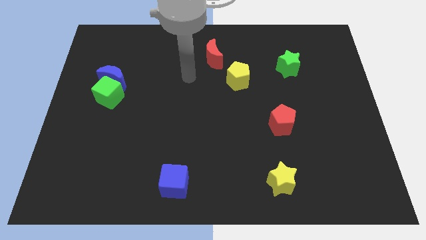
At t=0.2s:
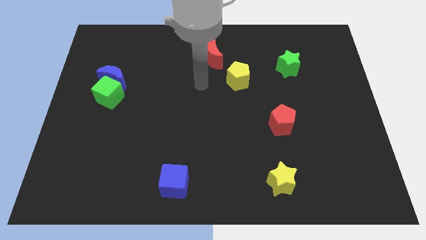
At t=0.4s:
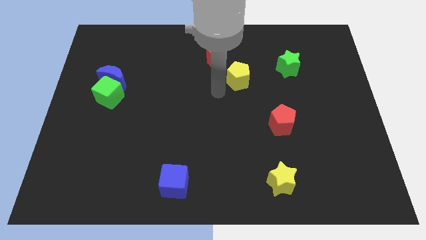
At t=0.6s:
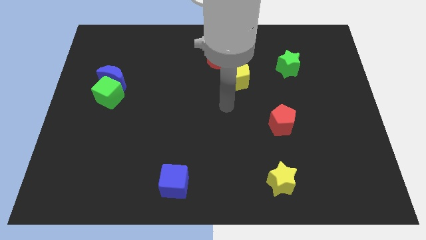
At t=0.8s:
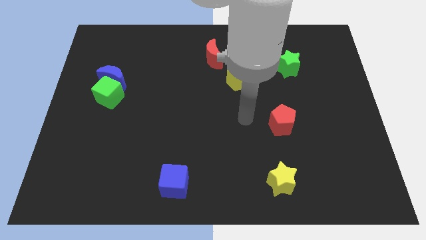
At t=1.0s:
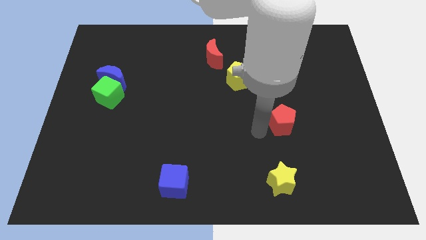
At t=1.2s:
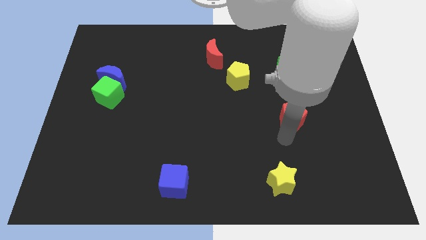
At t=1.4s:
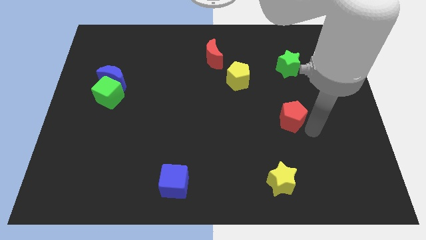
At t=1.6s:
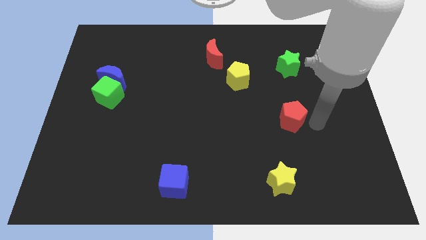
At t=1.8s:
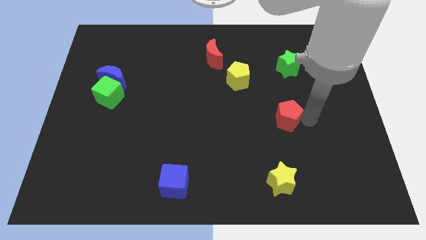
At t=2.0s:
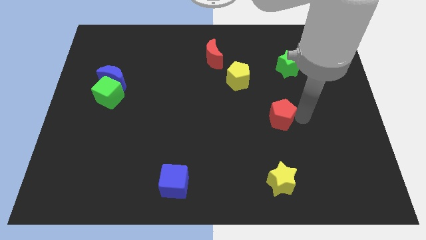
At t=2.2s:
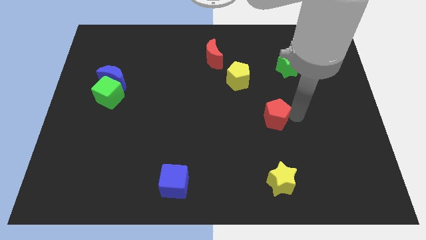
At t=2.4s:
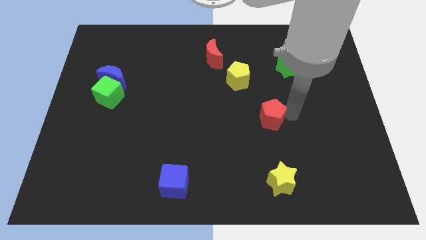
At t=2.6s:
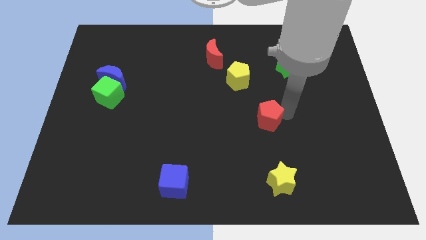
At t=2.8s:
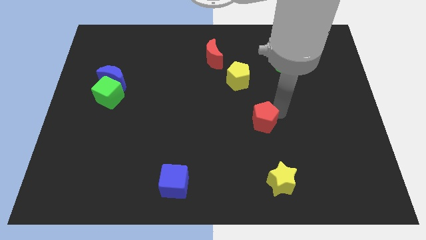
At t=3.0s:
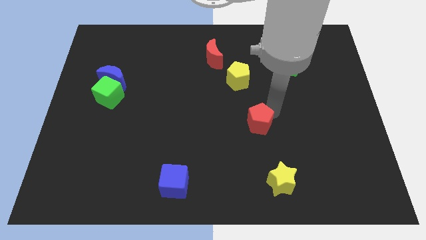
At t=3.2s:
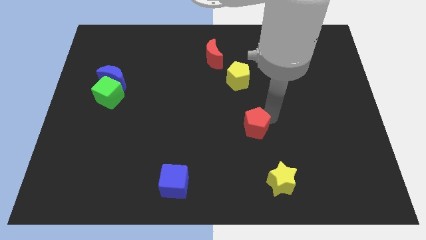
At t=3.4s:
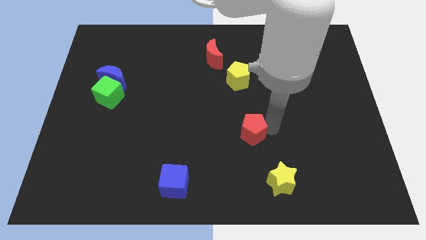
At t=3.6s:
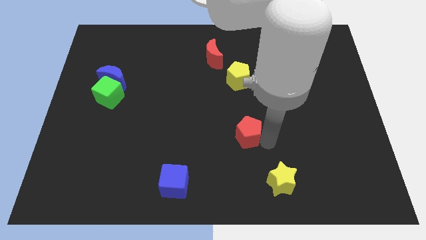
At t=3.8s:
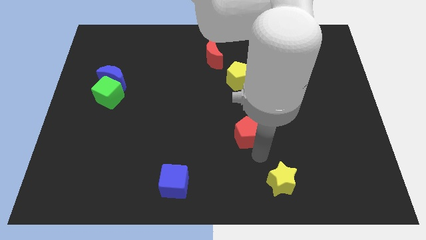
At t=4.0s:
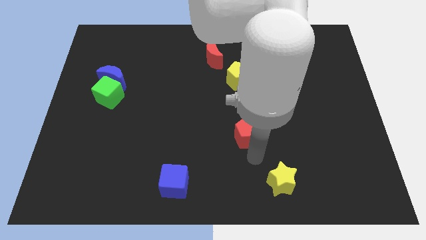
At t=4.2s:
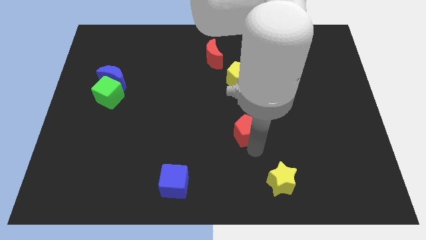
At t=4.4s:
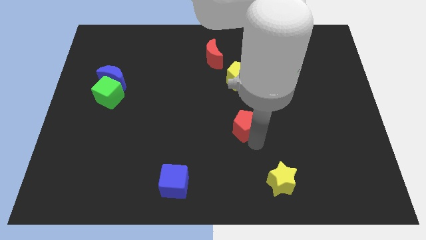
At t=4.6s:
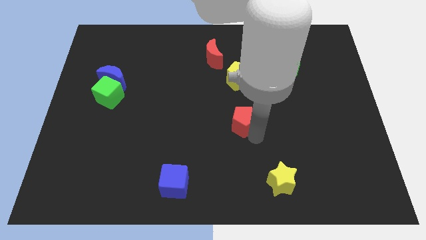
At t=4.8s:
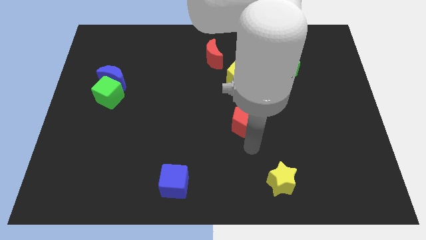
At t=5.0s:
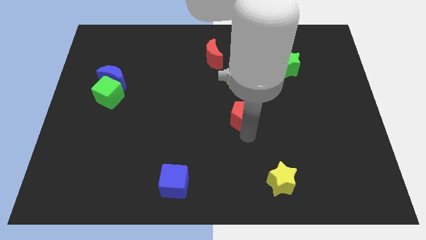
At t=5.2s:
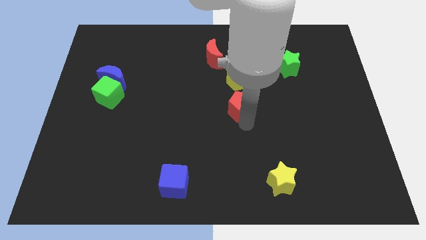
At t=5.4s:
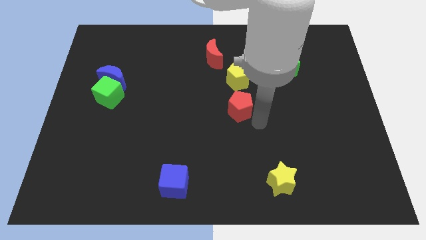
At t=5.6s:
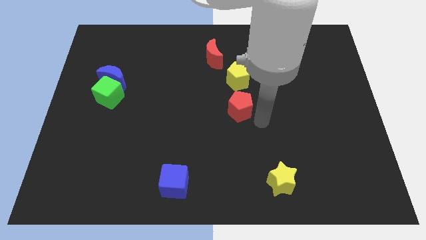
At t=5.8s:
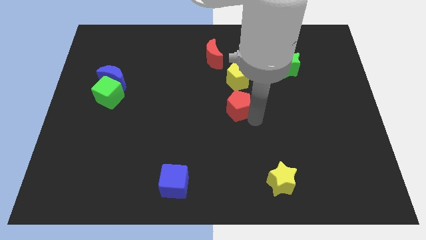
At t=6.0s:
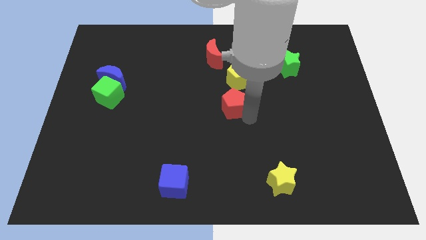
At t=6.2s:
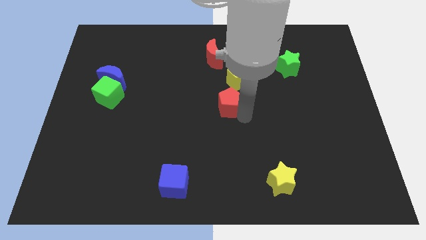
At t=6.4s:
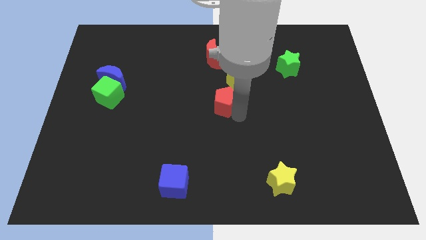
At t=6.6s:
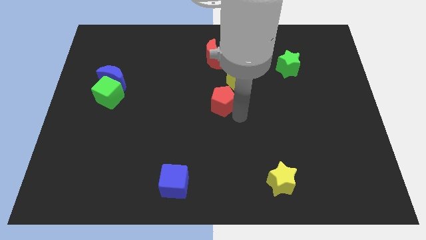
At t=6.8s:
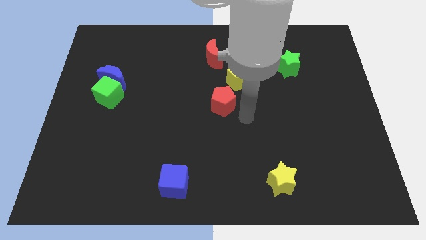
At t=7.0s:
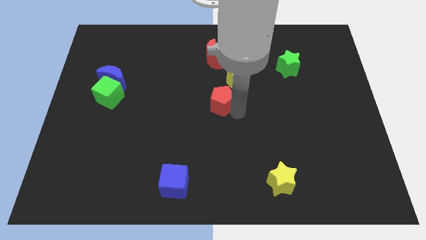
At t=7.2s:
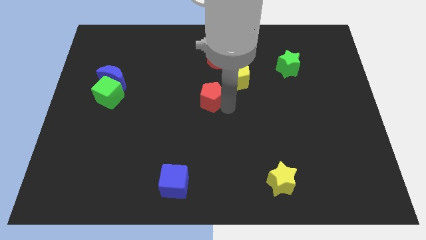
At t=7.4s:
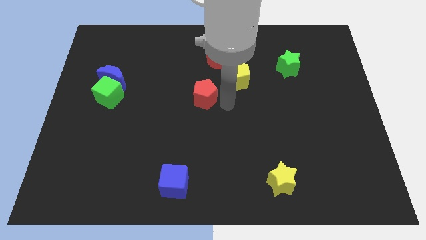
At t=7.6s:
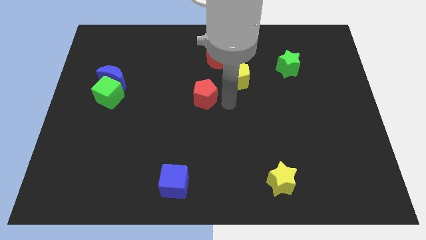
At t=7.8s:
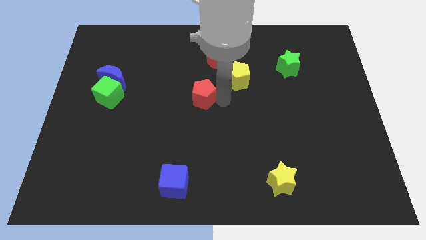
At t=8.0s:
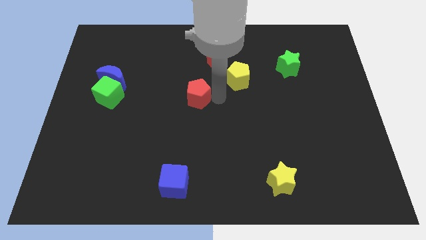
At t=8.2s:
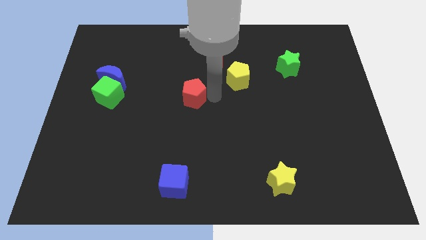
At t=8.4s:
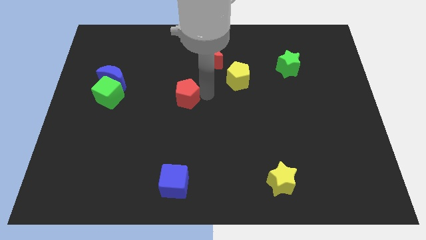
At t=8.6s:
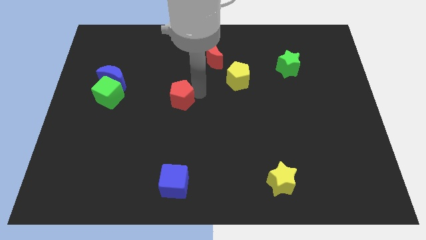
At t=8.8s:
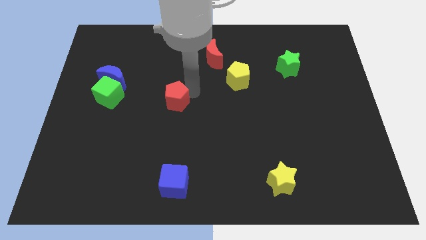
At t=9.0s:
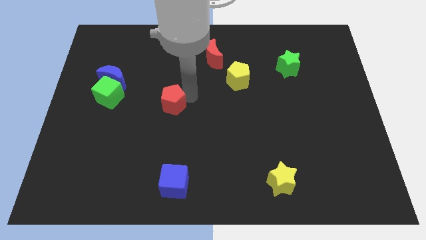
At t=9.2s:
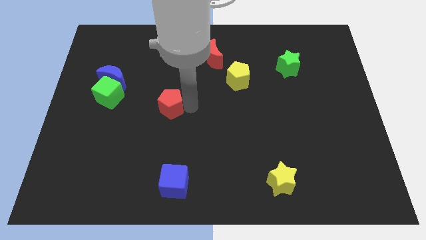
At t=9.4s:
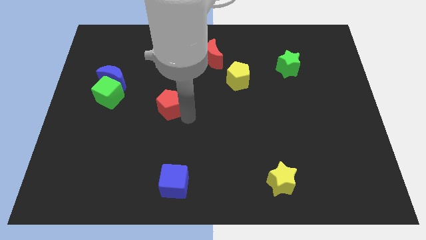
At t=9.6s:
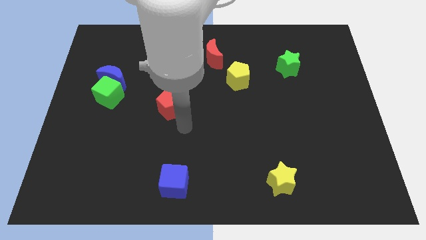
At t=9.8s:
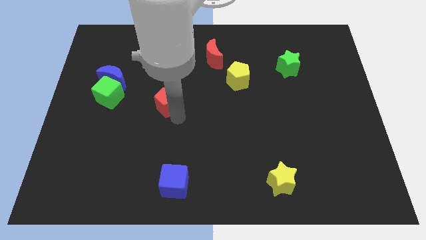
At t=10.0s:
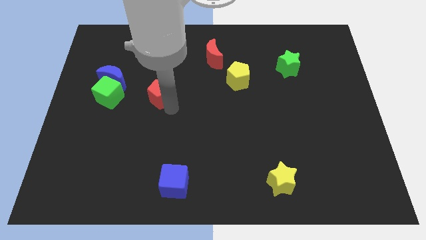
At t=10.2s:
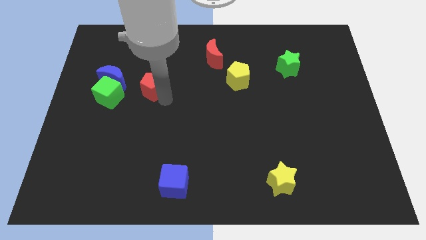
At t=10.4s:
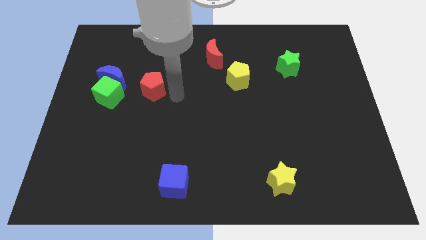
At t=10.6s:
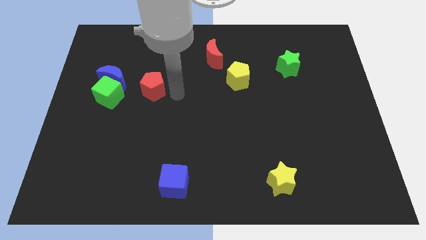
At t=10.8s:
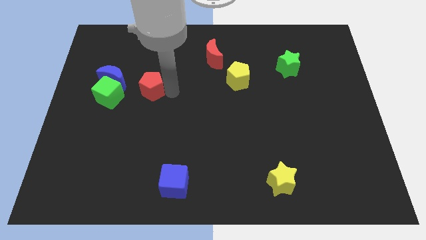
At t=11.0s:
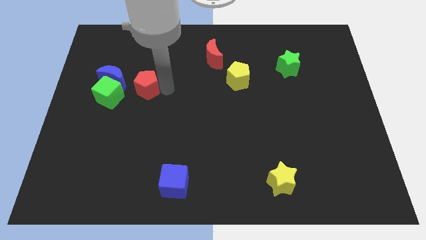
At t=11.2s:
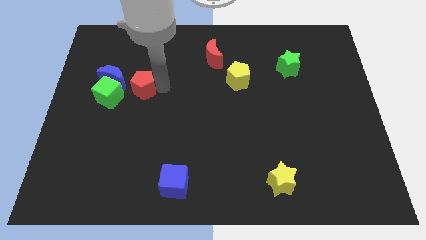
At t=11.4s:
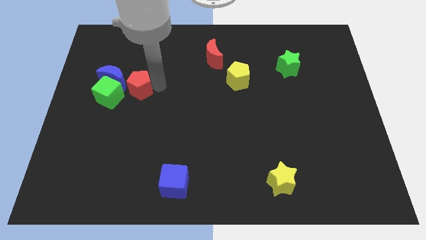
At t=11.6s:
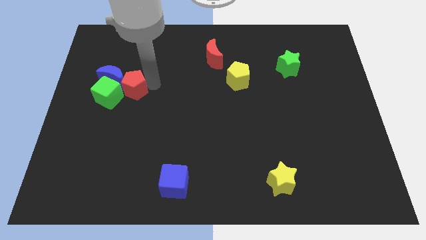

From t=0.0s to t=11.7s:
slide the red pentagon close to the blue moon

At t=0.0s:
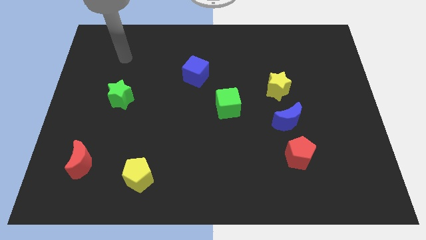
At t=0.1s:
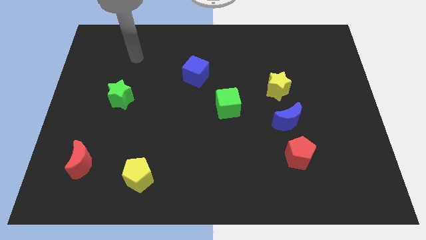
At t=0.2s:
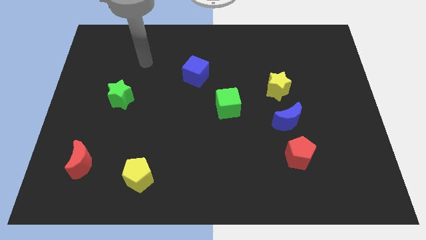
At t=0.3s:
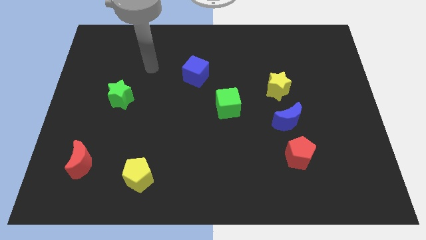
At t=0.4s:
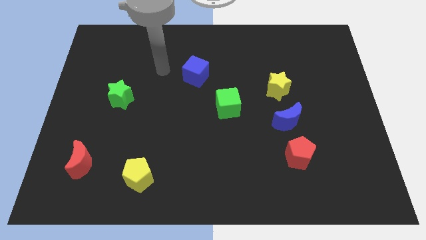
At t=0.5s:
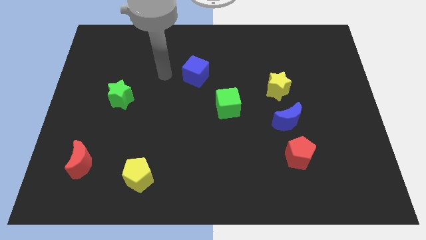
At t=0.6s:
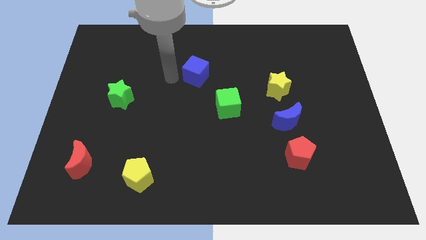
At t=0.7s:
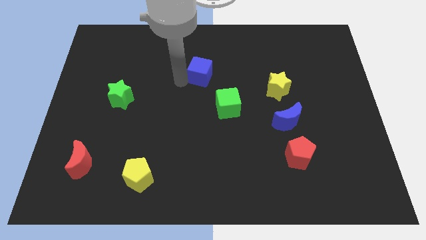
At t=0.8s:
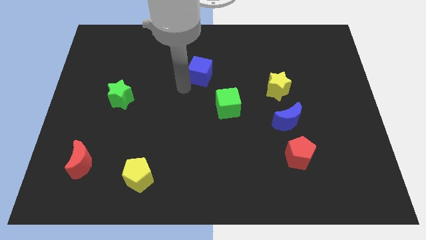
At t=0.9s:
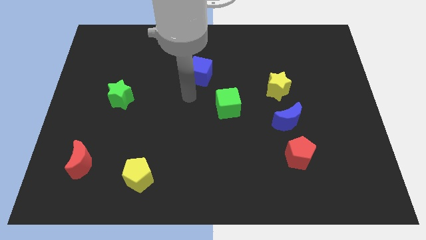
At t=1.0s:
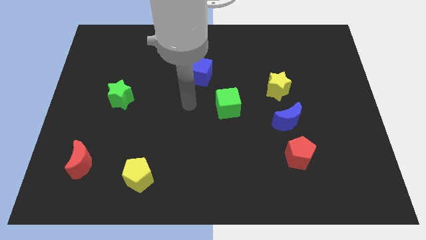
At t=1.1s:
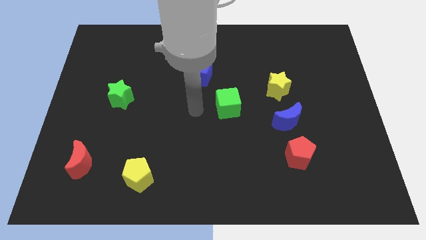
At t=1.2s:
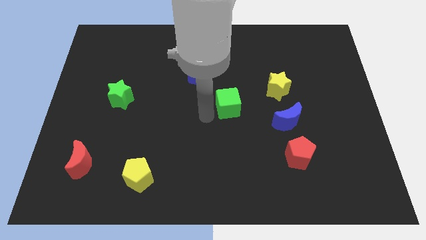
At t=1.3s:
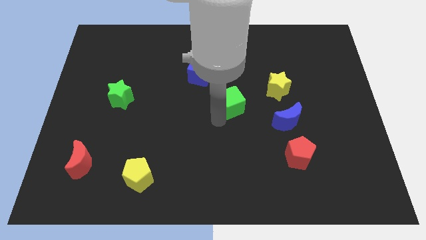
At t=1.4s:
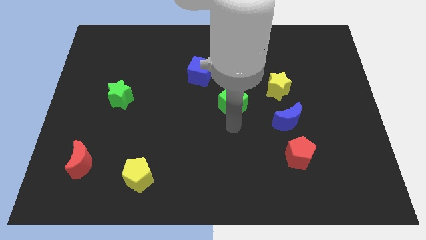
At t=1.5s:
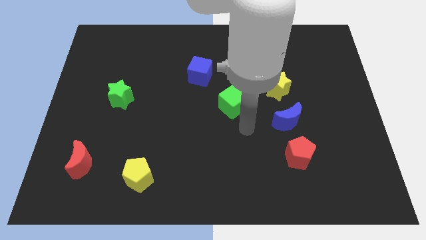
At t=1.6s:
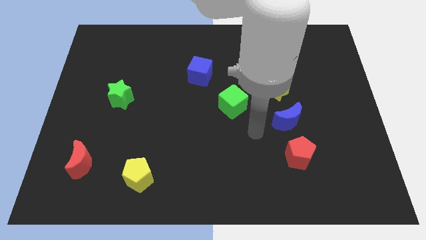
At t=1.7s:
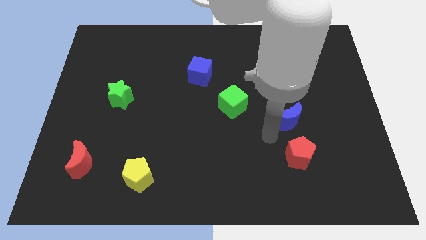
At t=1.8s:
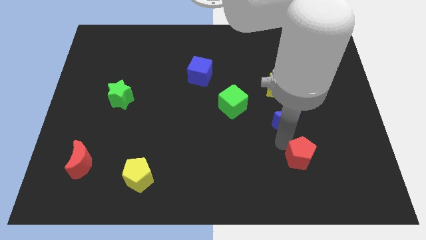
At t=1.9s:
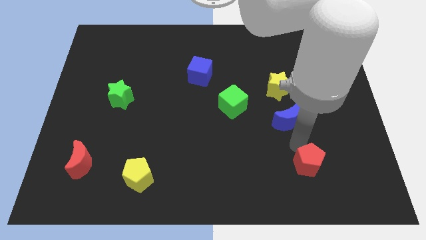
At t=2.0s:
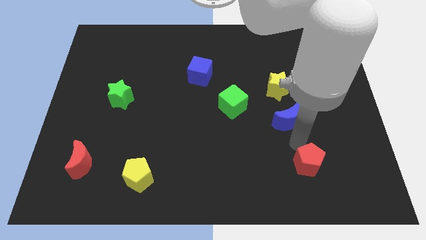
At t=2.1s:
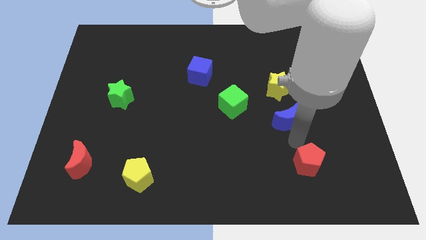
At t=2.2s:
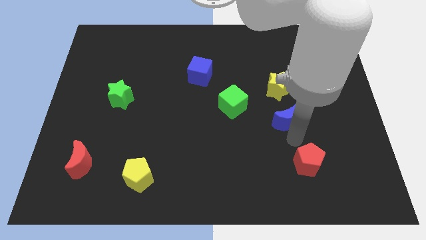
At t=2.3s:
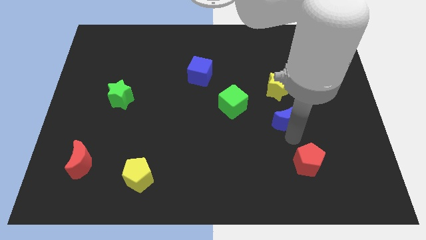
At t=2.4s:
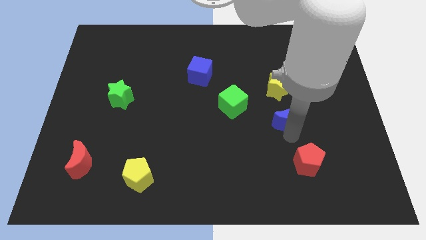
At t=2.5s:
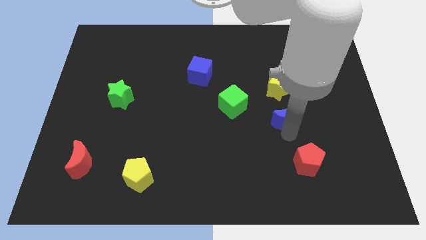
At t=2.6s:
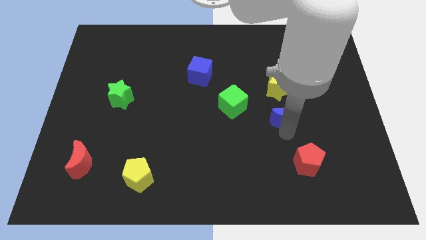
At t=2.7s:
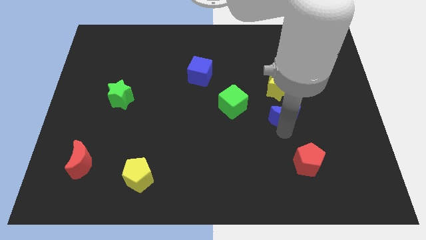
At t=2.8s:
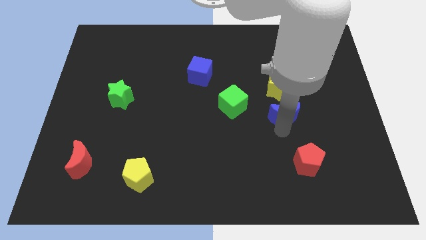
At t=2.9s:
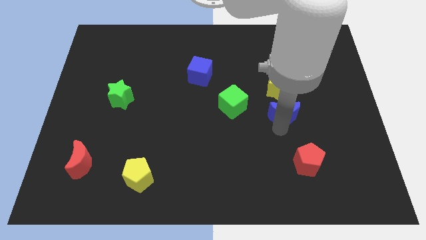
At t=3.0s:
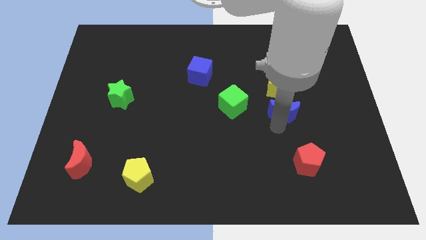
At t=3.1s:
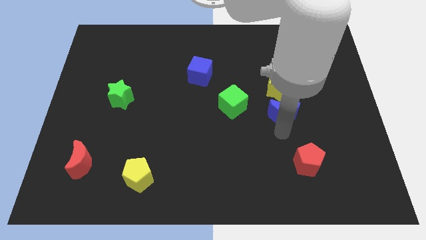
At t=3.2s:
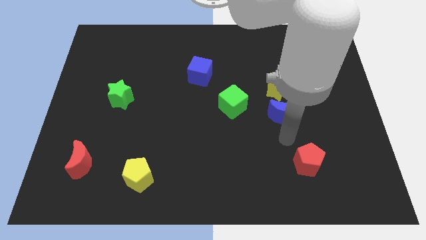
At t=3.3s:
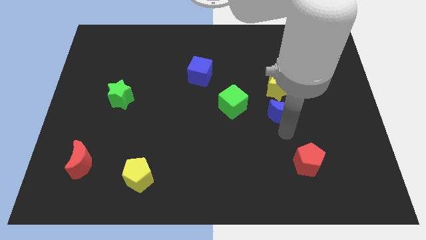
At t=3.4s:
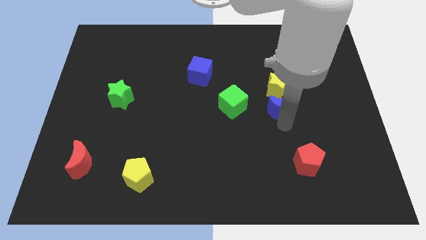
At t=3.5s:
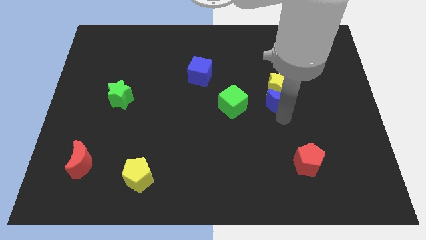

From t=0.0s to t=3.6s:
put the blue moon towards the yellow star
